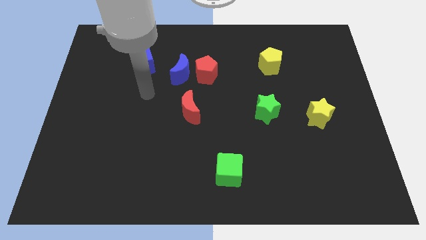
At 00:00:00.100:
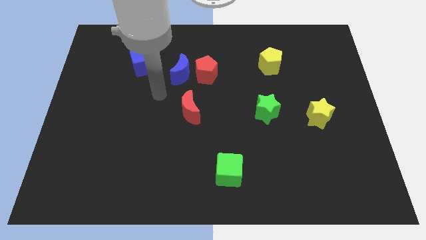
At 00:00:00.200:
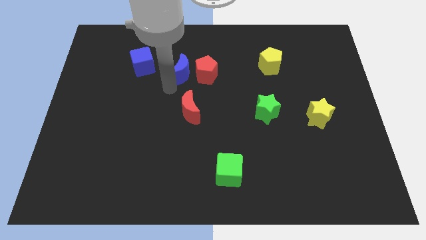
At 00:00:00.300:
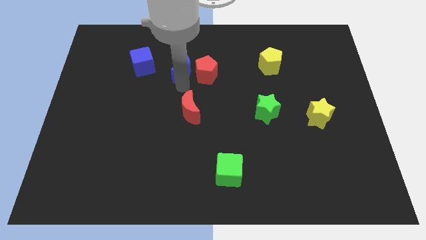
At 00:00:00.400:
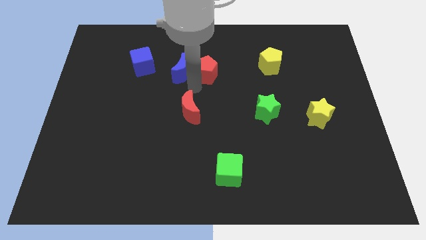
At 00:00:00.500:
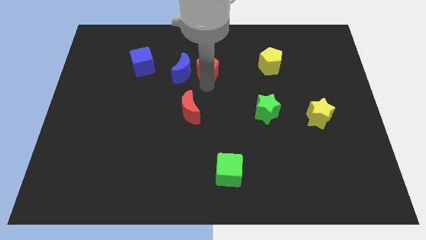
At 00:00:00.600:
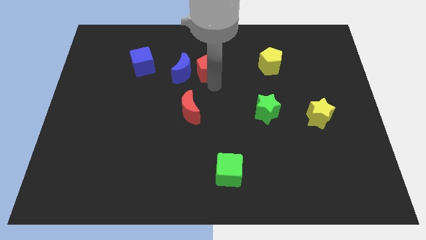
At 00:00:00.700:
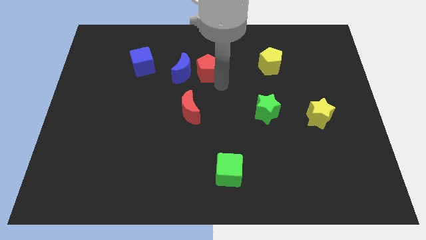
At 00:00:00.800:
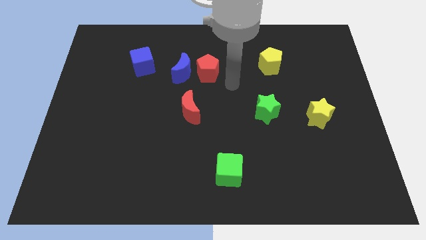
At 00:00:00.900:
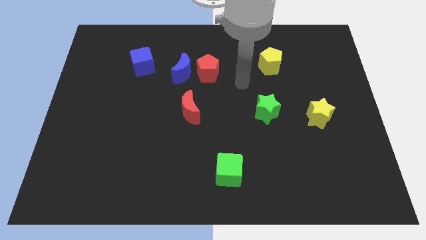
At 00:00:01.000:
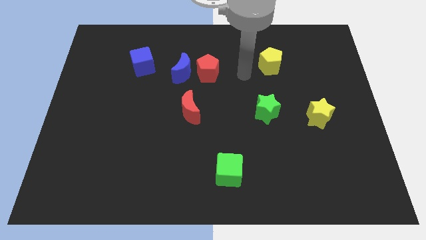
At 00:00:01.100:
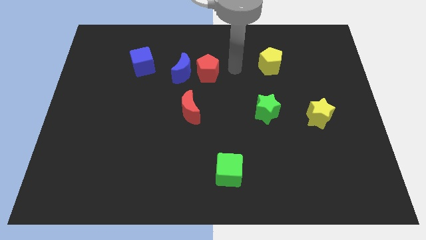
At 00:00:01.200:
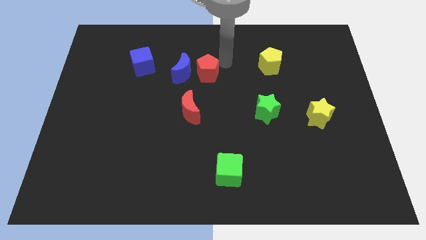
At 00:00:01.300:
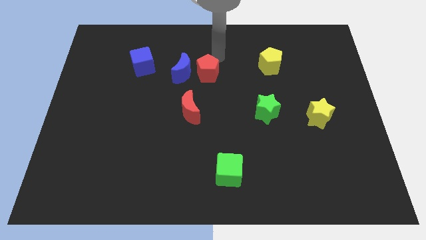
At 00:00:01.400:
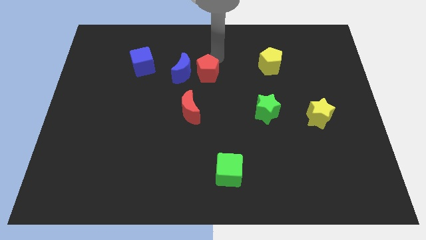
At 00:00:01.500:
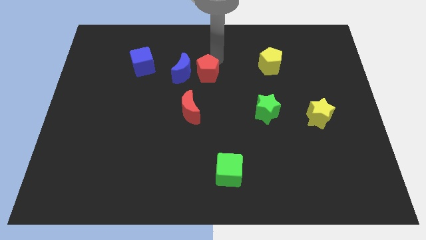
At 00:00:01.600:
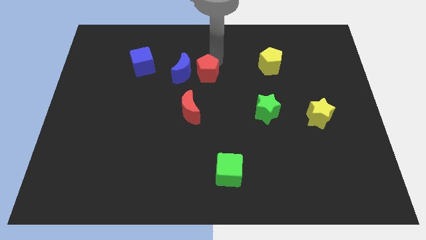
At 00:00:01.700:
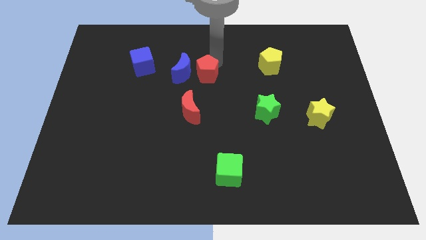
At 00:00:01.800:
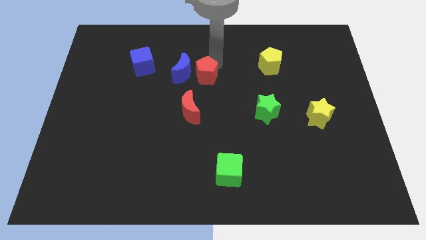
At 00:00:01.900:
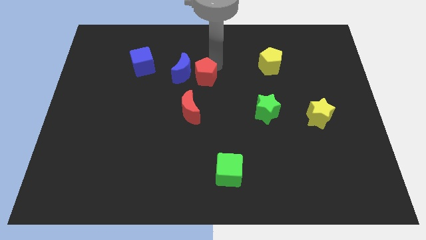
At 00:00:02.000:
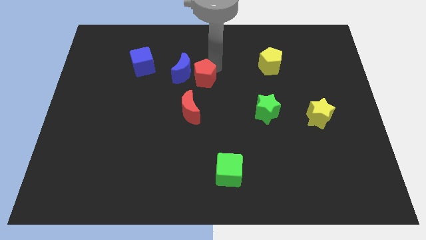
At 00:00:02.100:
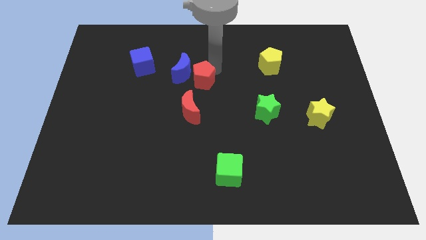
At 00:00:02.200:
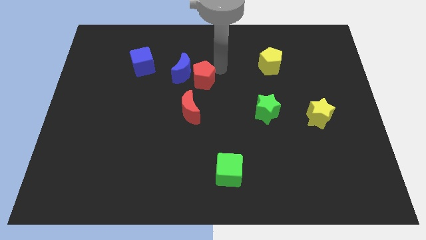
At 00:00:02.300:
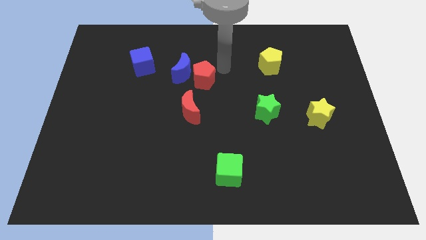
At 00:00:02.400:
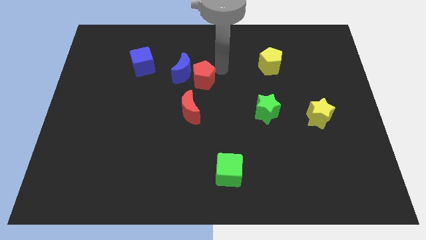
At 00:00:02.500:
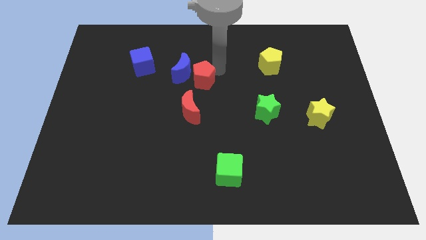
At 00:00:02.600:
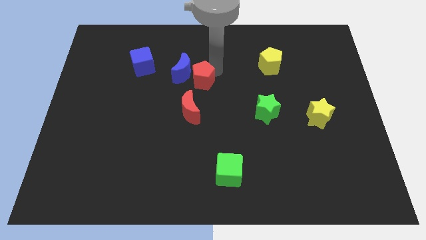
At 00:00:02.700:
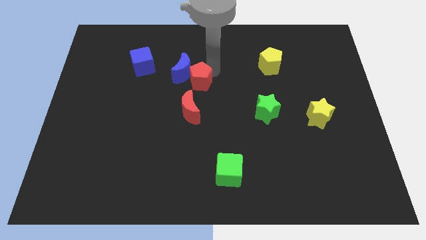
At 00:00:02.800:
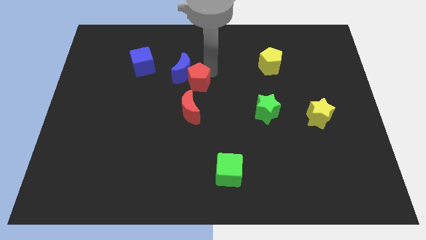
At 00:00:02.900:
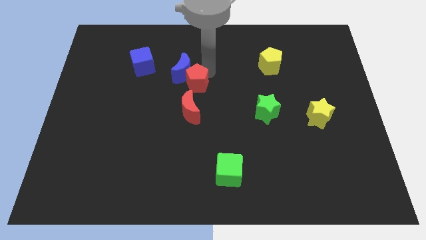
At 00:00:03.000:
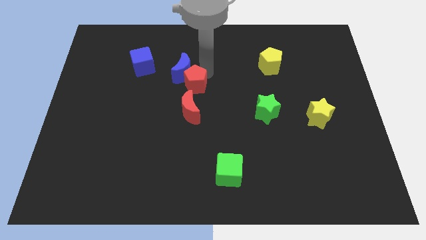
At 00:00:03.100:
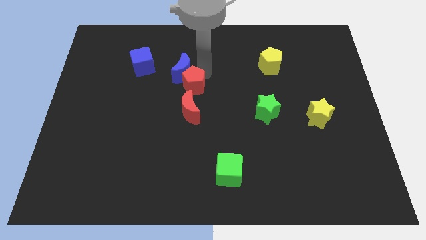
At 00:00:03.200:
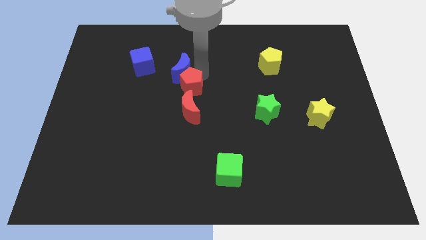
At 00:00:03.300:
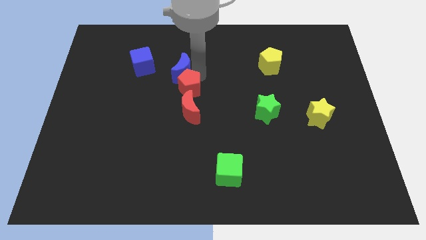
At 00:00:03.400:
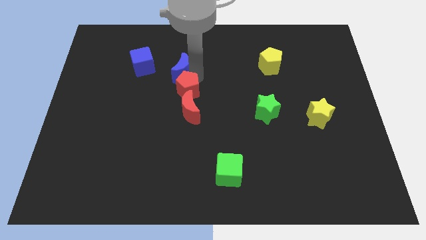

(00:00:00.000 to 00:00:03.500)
slightly move the red pentagon diagonally down and left

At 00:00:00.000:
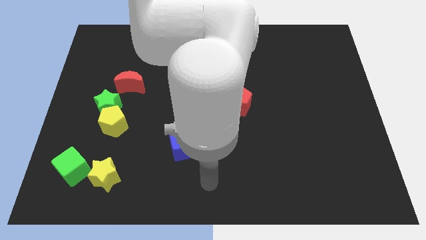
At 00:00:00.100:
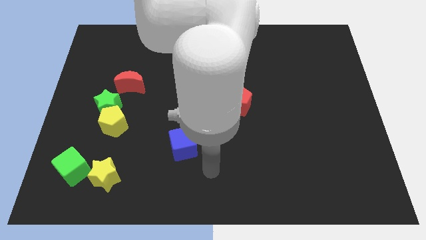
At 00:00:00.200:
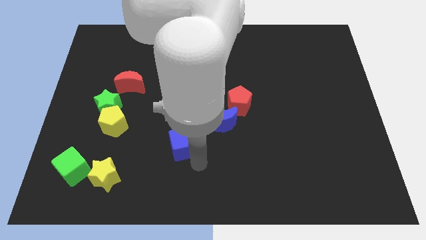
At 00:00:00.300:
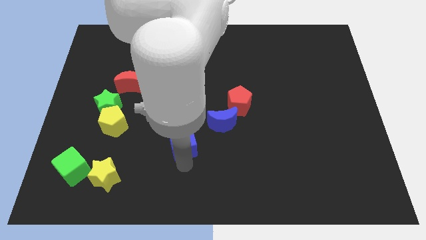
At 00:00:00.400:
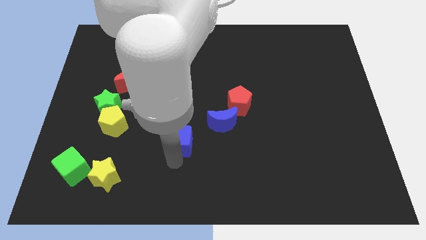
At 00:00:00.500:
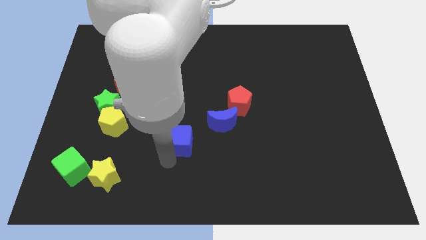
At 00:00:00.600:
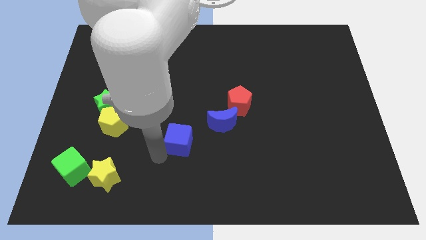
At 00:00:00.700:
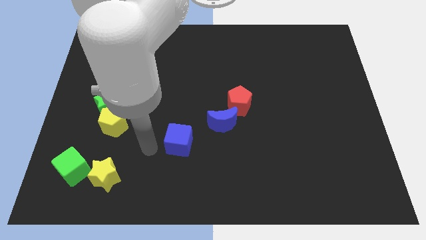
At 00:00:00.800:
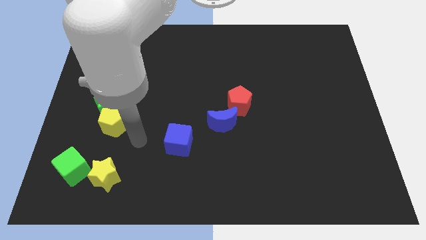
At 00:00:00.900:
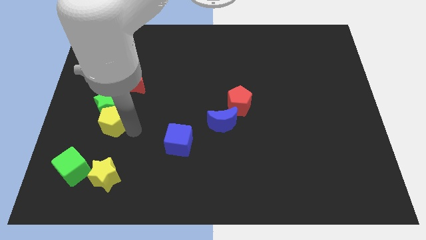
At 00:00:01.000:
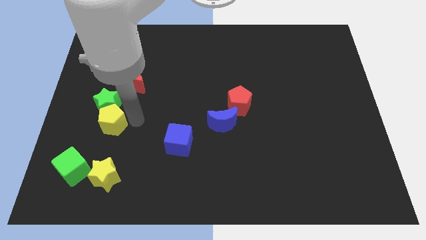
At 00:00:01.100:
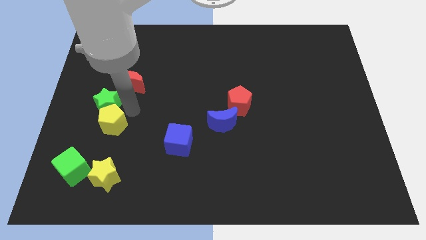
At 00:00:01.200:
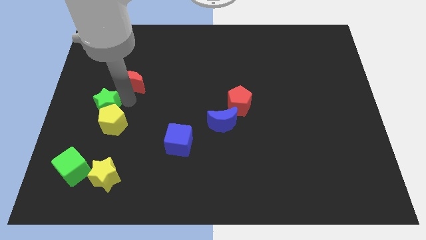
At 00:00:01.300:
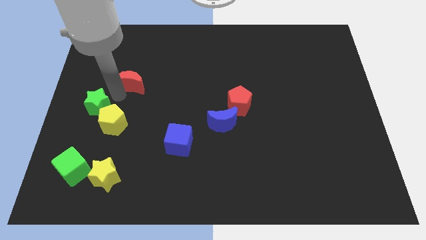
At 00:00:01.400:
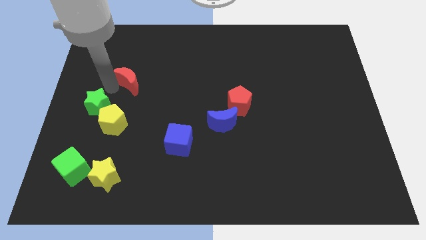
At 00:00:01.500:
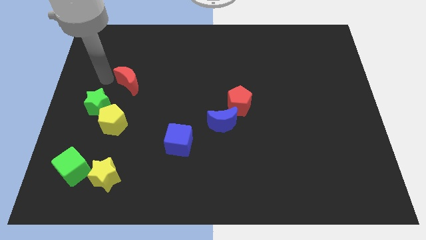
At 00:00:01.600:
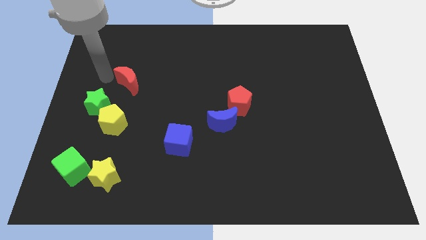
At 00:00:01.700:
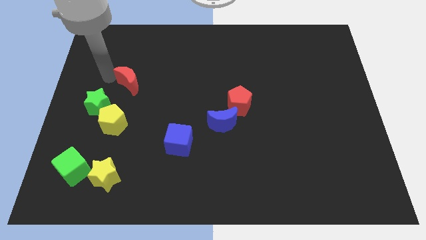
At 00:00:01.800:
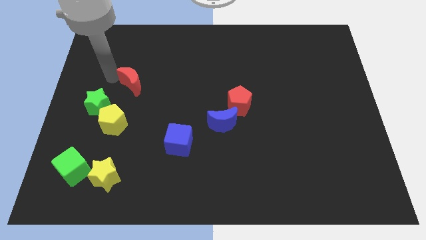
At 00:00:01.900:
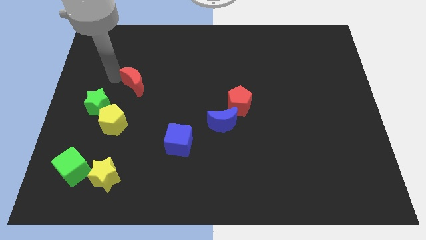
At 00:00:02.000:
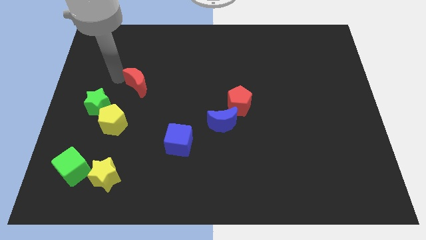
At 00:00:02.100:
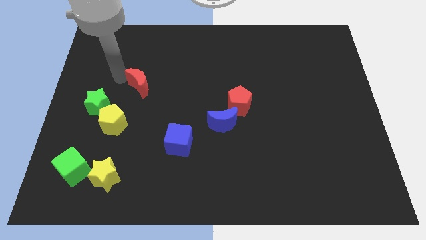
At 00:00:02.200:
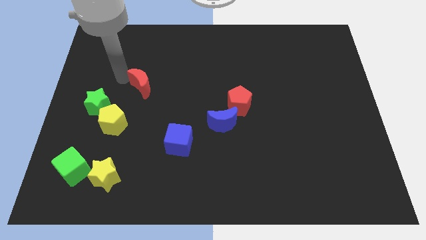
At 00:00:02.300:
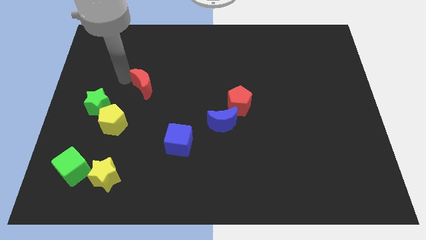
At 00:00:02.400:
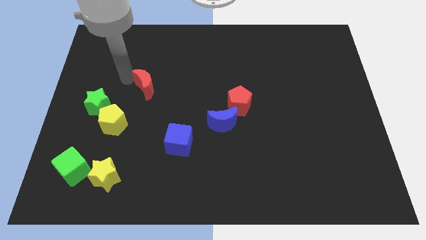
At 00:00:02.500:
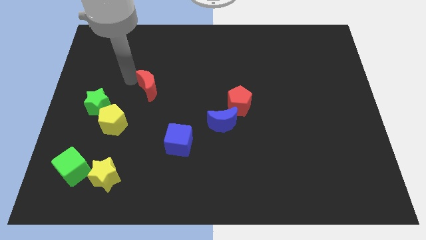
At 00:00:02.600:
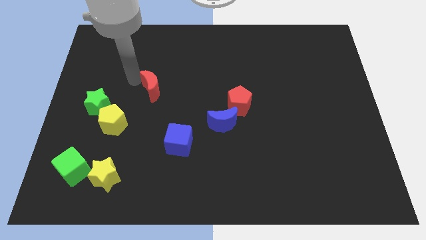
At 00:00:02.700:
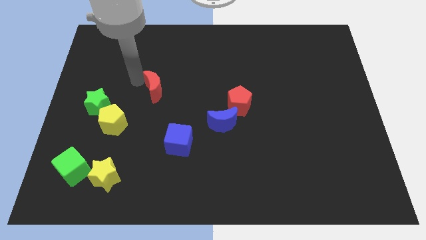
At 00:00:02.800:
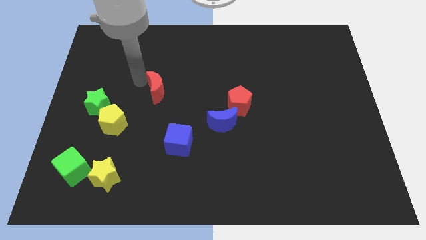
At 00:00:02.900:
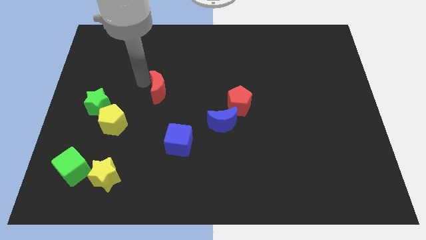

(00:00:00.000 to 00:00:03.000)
move the red moon to the right a little

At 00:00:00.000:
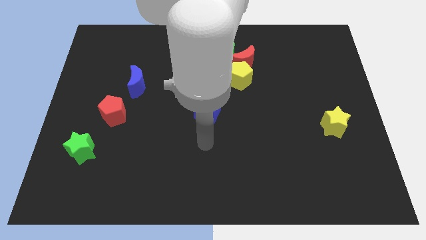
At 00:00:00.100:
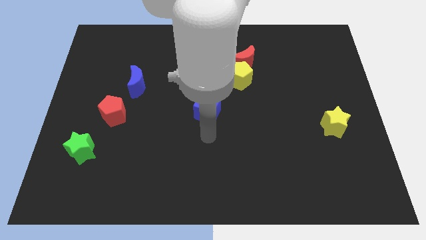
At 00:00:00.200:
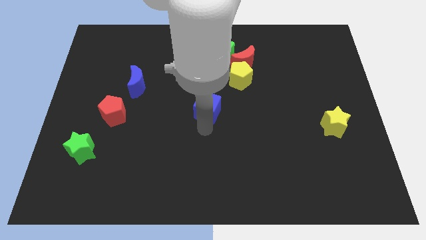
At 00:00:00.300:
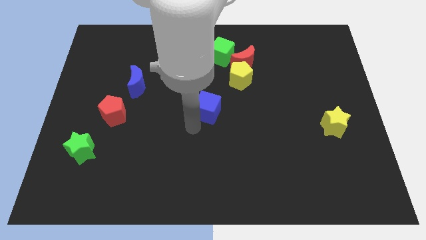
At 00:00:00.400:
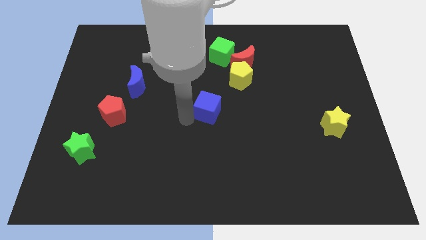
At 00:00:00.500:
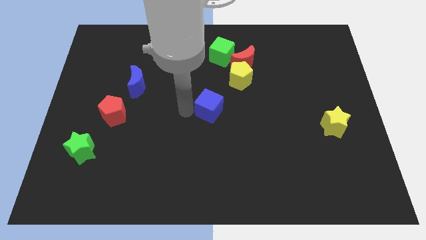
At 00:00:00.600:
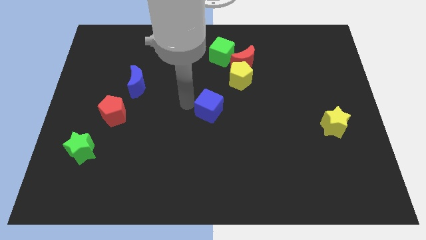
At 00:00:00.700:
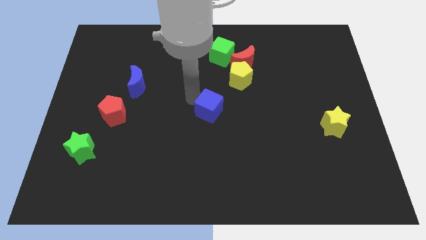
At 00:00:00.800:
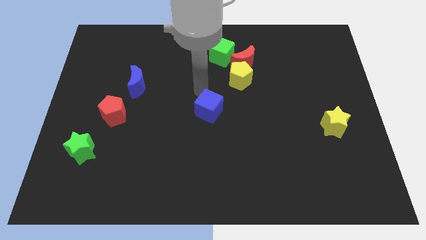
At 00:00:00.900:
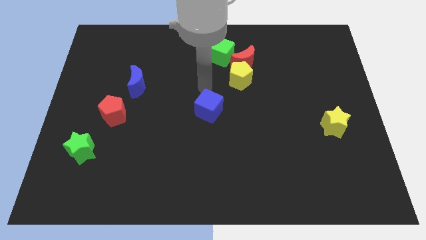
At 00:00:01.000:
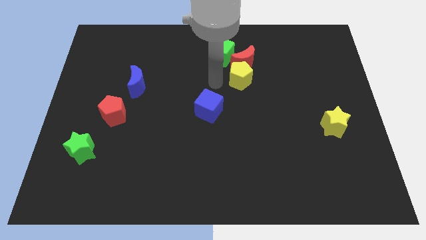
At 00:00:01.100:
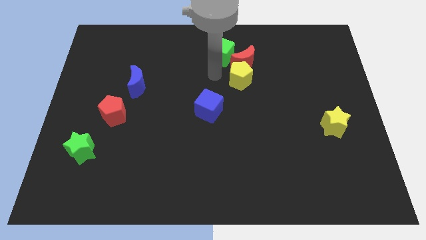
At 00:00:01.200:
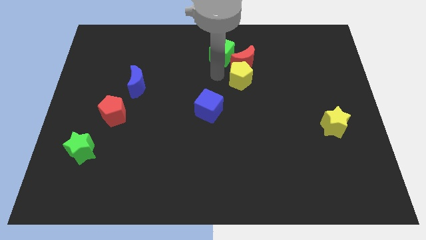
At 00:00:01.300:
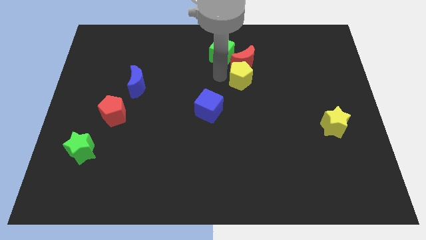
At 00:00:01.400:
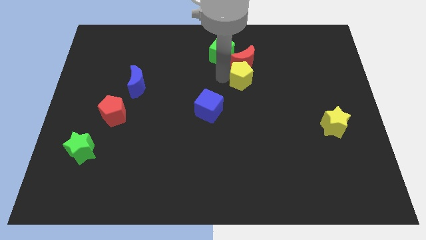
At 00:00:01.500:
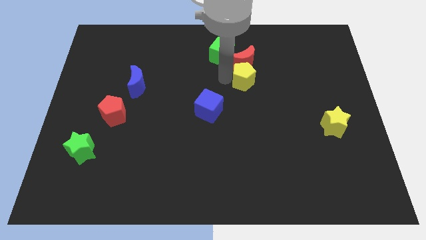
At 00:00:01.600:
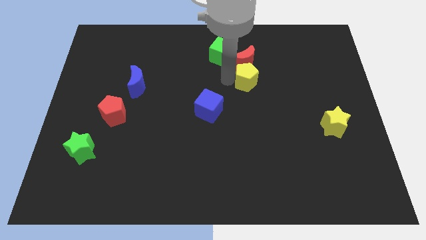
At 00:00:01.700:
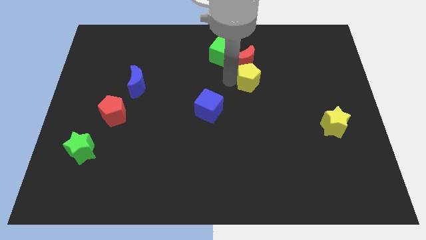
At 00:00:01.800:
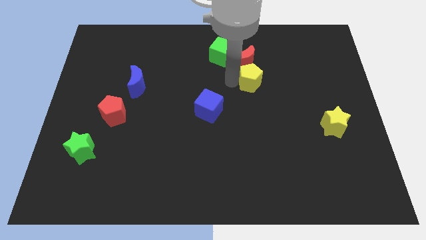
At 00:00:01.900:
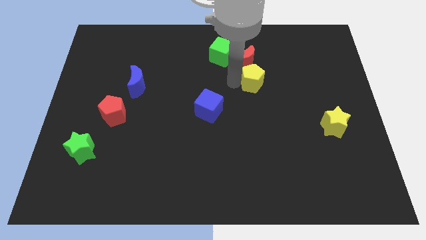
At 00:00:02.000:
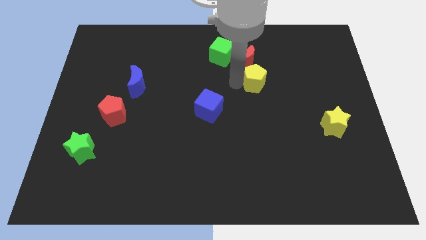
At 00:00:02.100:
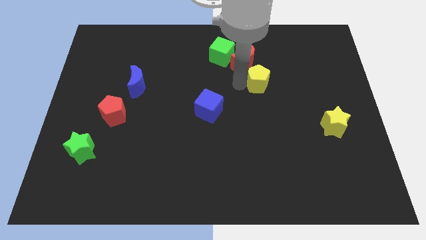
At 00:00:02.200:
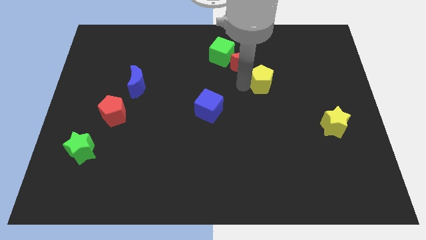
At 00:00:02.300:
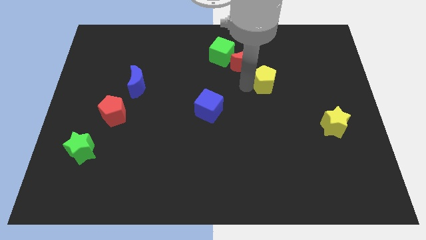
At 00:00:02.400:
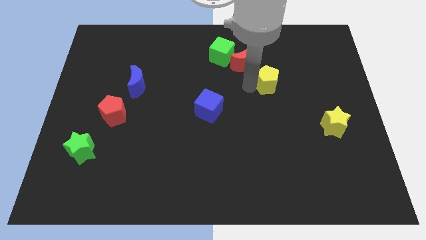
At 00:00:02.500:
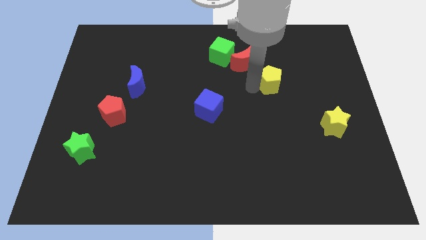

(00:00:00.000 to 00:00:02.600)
slide the yellow pentagon a bit to the right
